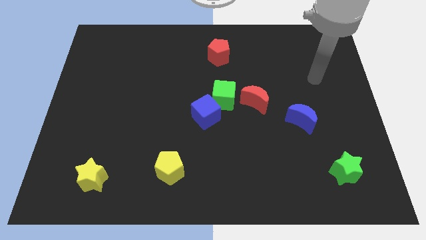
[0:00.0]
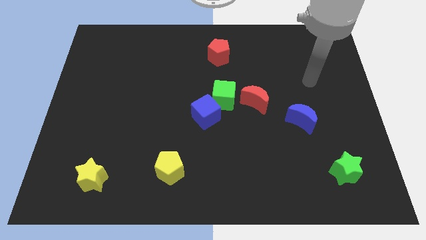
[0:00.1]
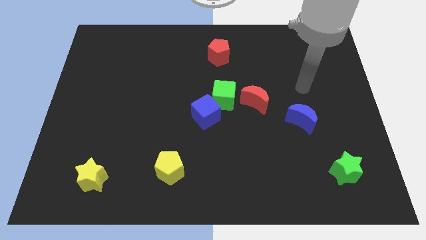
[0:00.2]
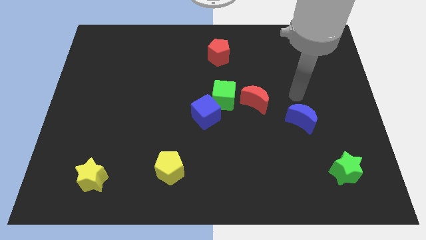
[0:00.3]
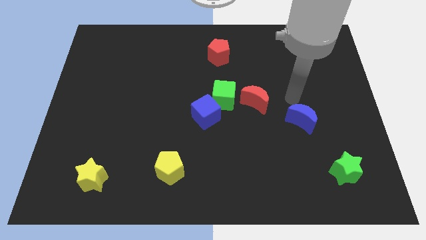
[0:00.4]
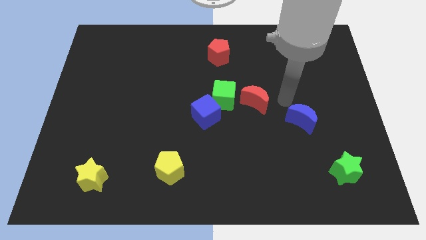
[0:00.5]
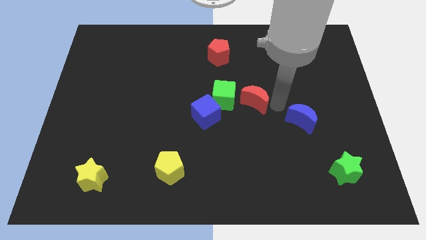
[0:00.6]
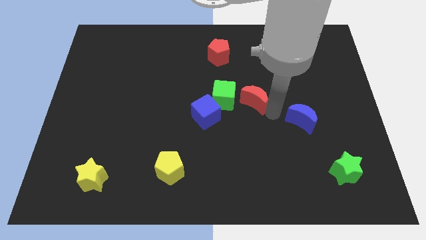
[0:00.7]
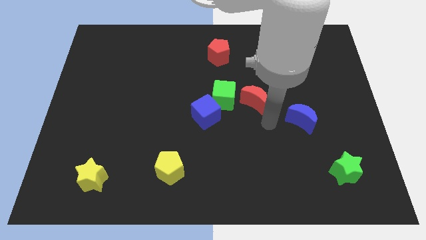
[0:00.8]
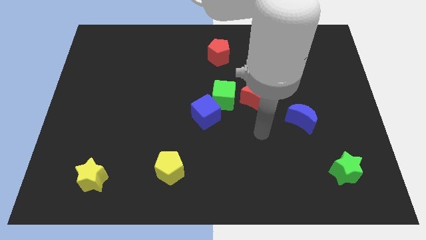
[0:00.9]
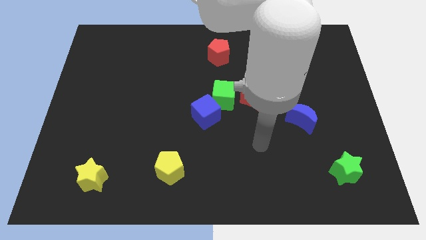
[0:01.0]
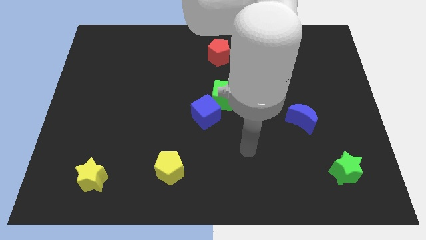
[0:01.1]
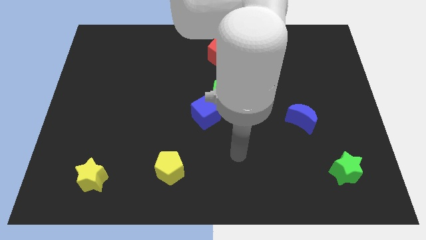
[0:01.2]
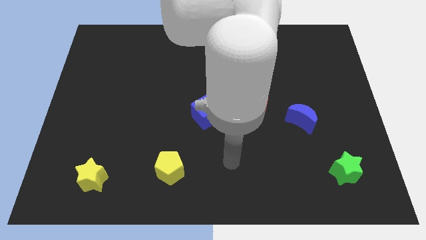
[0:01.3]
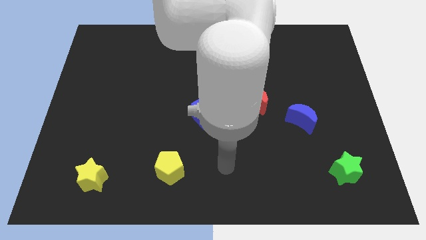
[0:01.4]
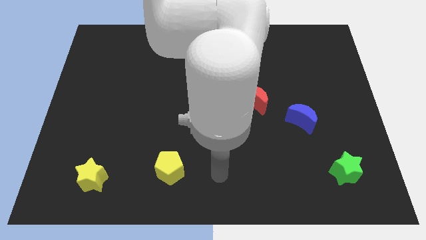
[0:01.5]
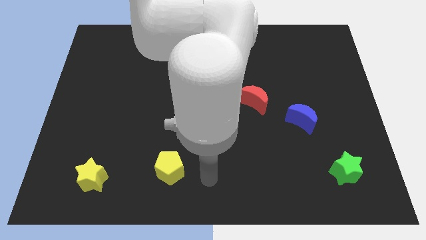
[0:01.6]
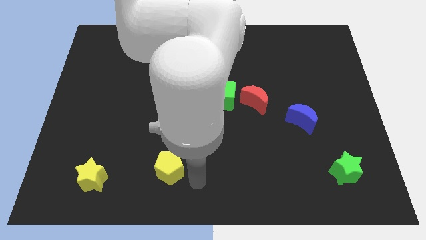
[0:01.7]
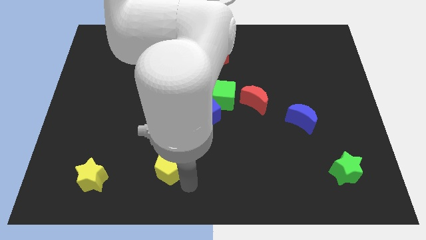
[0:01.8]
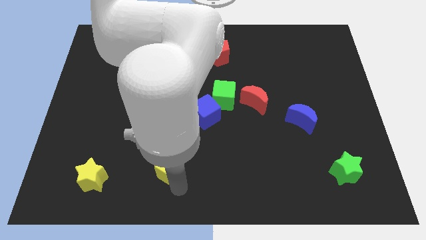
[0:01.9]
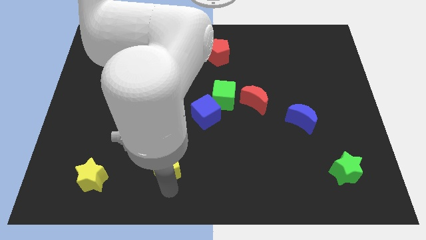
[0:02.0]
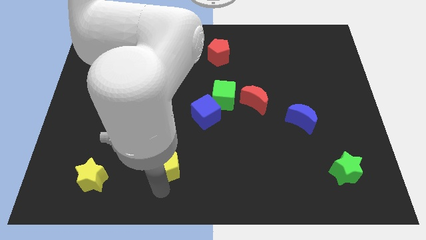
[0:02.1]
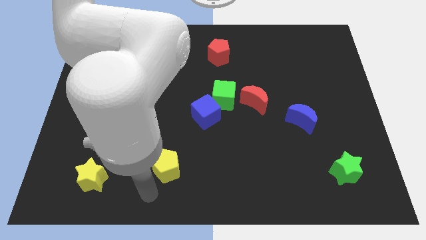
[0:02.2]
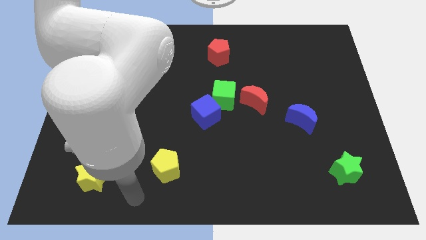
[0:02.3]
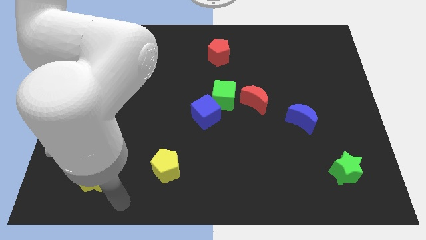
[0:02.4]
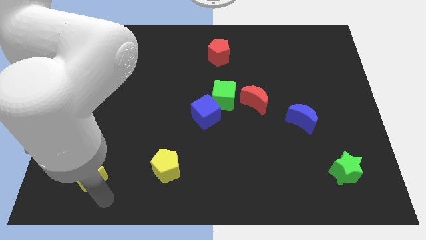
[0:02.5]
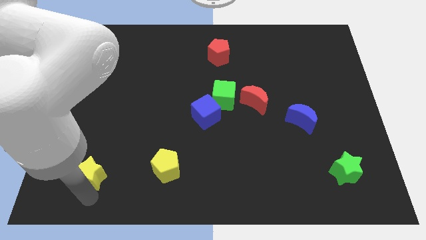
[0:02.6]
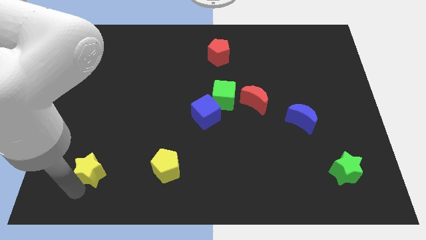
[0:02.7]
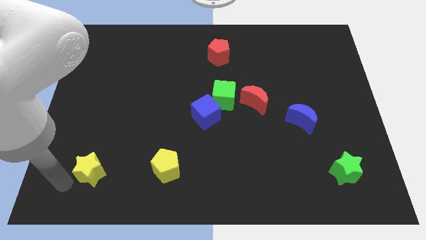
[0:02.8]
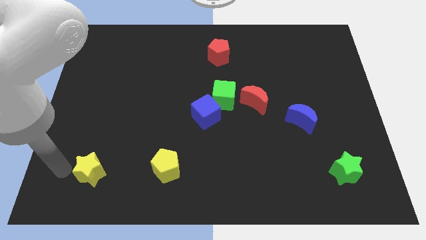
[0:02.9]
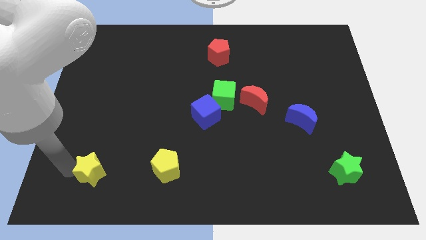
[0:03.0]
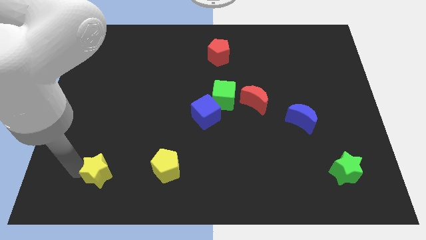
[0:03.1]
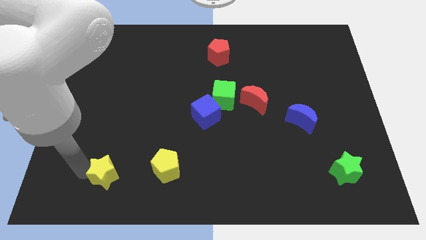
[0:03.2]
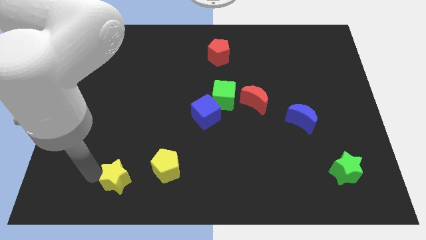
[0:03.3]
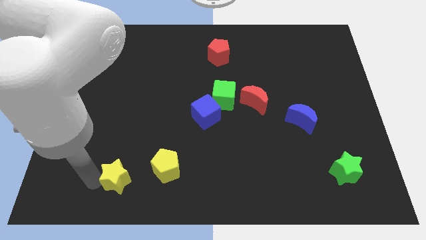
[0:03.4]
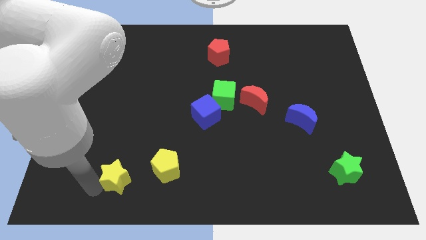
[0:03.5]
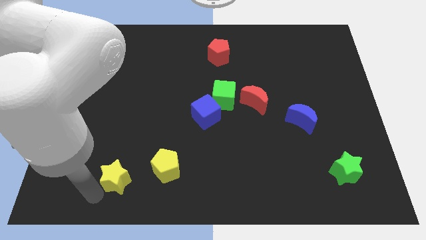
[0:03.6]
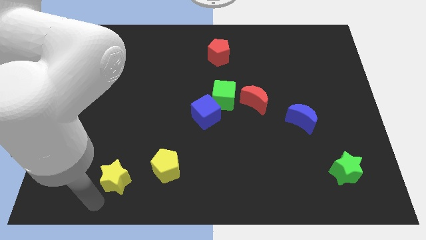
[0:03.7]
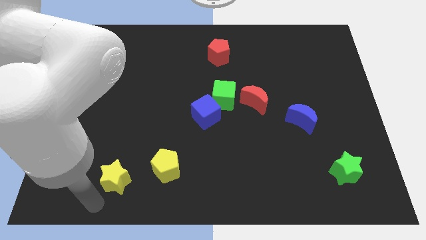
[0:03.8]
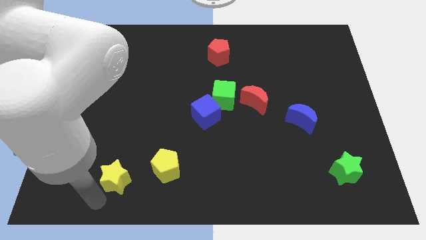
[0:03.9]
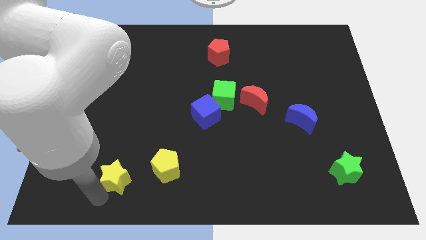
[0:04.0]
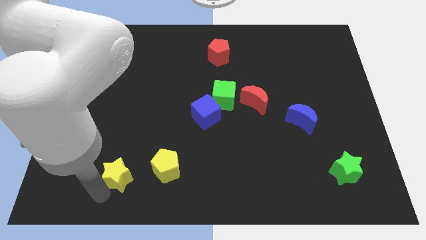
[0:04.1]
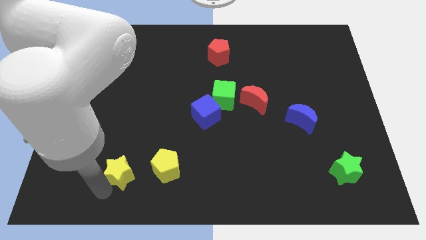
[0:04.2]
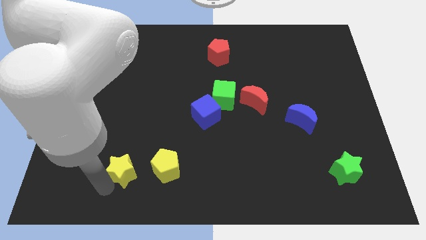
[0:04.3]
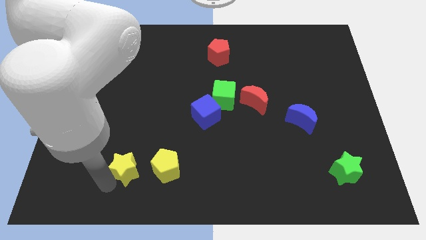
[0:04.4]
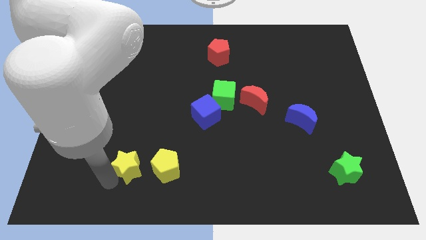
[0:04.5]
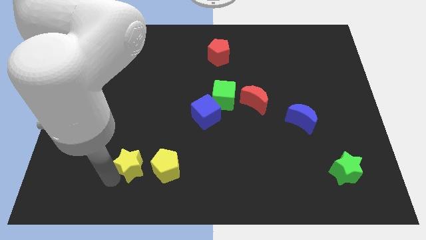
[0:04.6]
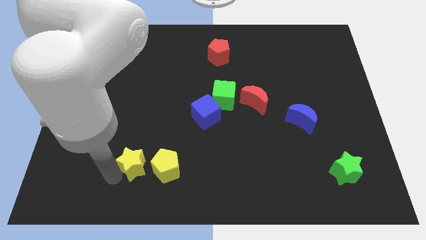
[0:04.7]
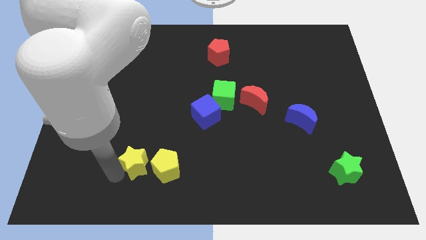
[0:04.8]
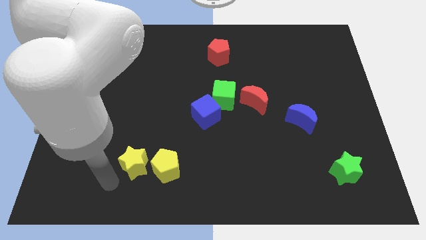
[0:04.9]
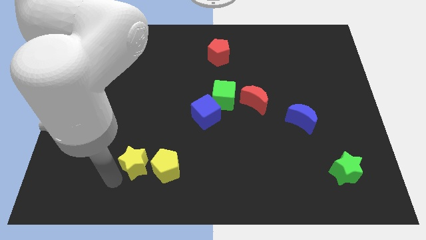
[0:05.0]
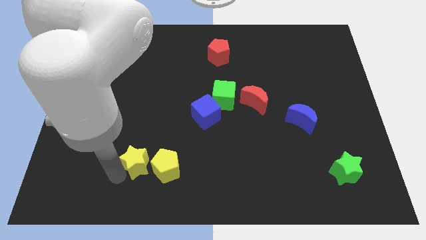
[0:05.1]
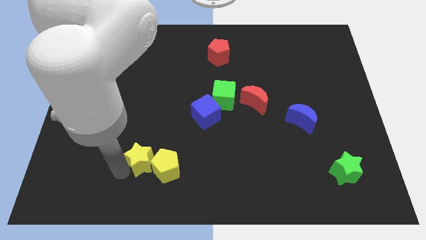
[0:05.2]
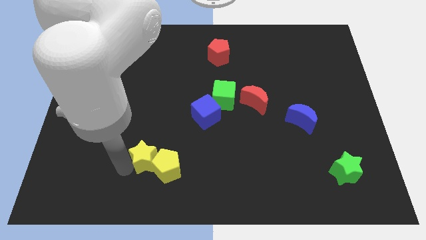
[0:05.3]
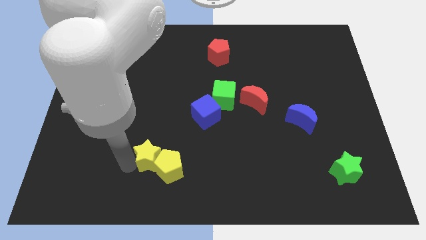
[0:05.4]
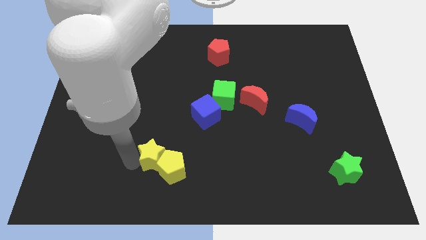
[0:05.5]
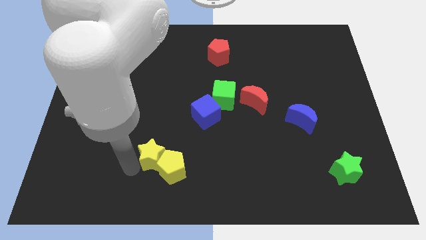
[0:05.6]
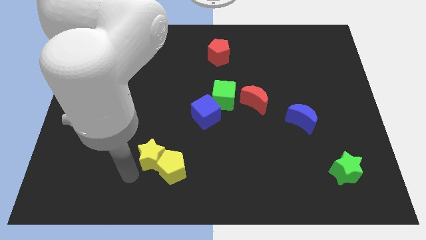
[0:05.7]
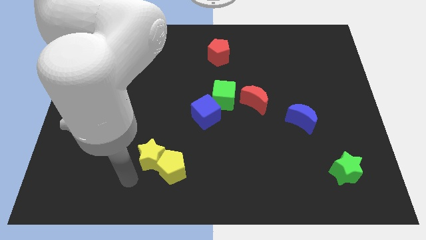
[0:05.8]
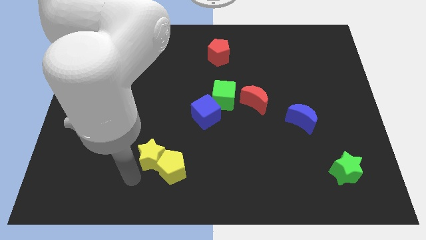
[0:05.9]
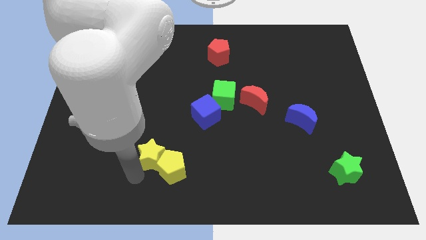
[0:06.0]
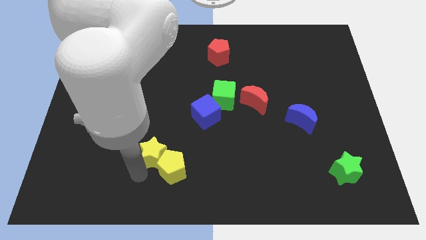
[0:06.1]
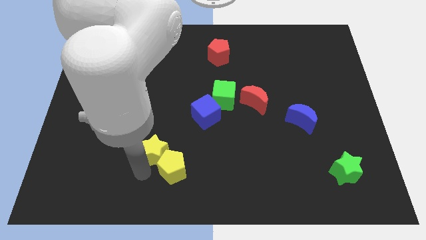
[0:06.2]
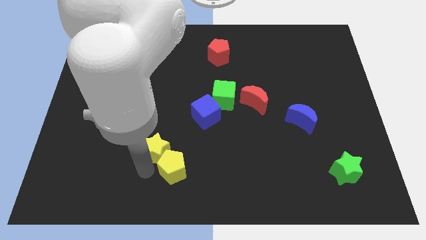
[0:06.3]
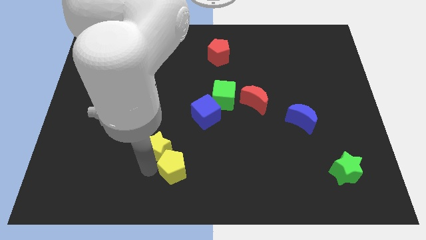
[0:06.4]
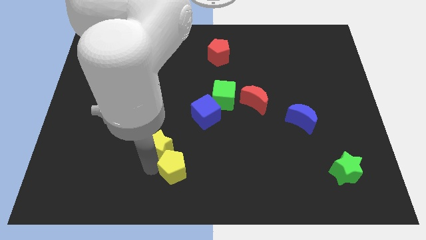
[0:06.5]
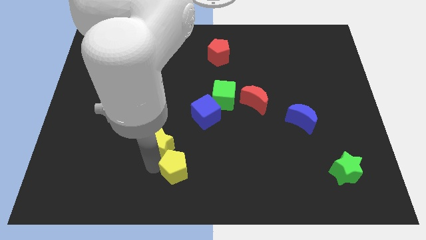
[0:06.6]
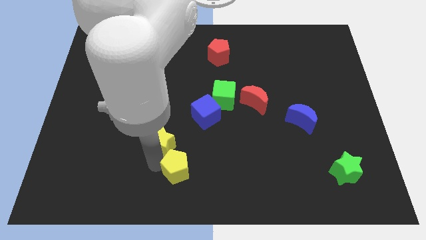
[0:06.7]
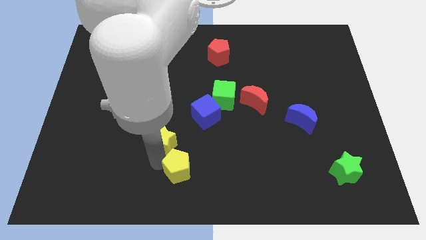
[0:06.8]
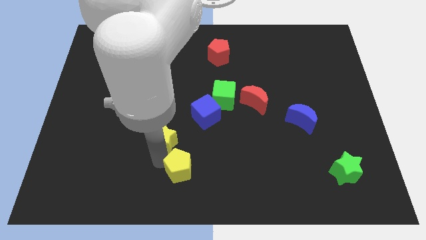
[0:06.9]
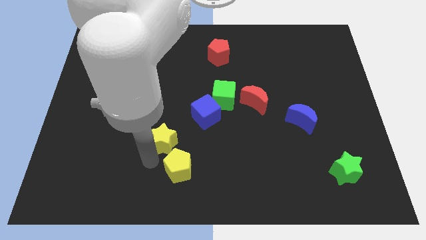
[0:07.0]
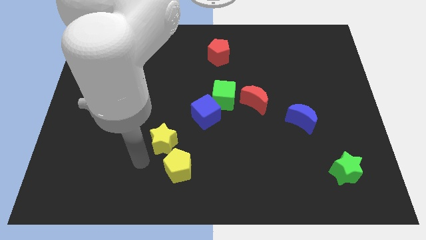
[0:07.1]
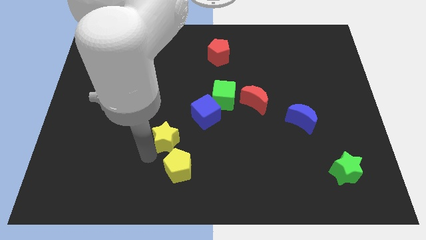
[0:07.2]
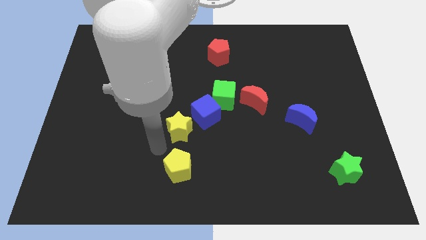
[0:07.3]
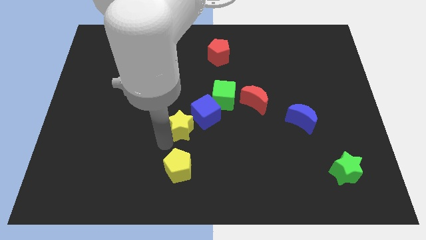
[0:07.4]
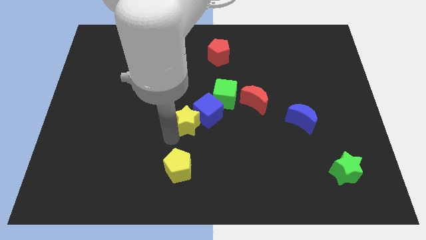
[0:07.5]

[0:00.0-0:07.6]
push the yellow star towards the blue cube

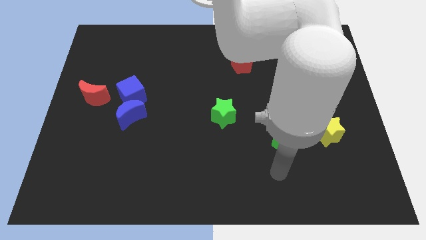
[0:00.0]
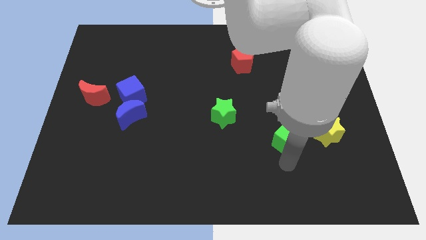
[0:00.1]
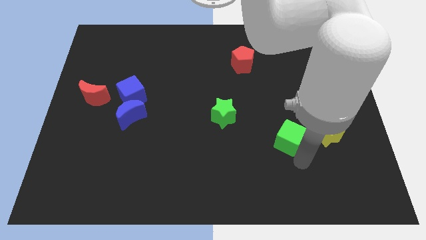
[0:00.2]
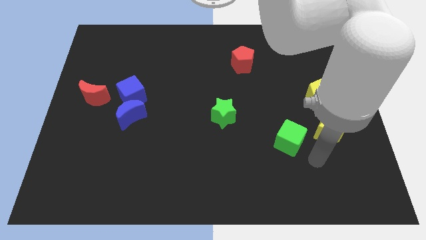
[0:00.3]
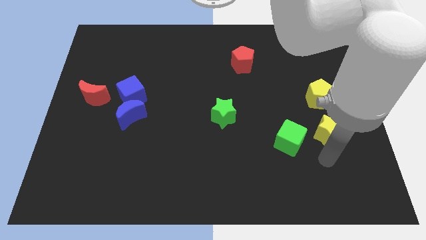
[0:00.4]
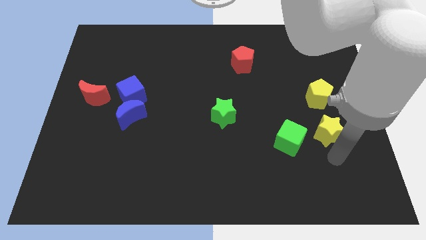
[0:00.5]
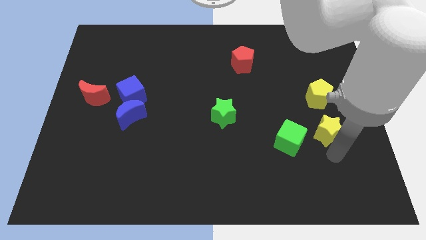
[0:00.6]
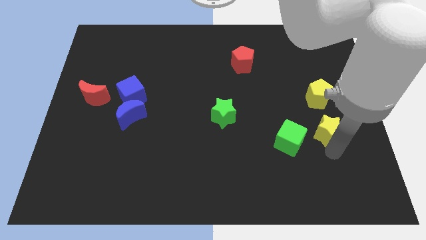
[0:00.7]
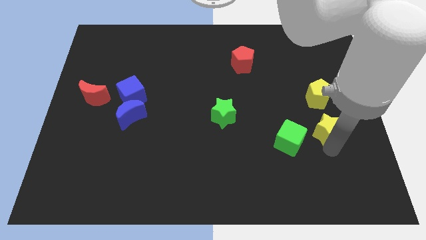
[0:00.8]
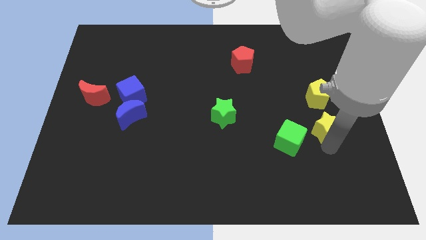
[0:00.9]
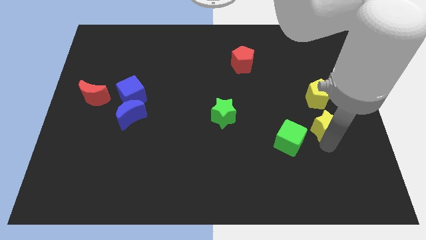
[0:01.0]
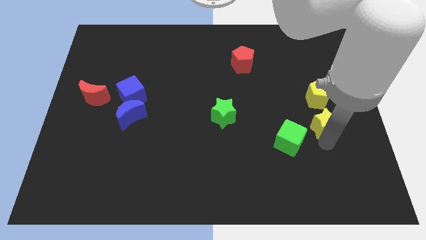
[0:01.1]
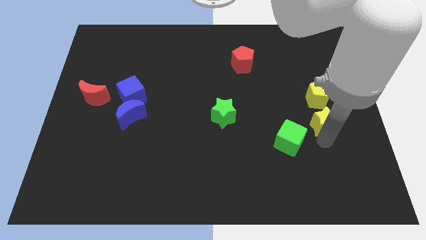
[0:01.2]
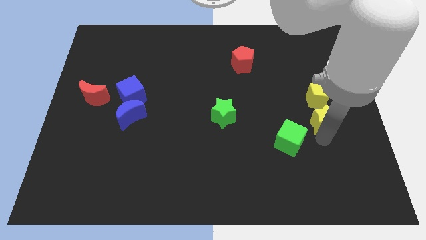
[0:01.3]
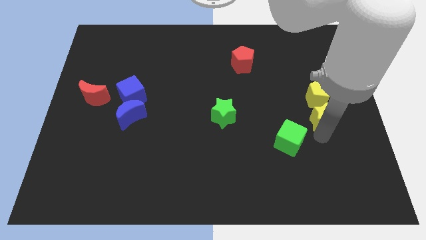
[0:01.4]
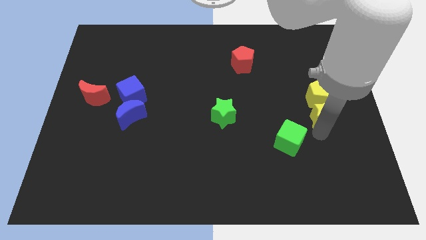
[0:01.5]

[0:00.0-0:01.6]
put the yellow star to the yellow pentagon
